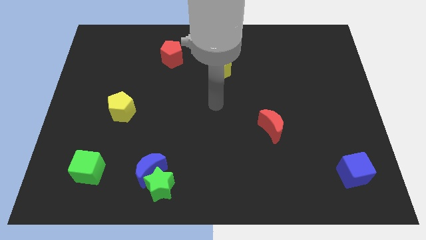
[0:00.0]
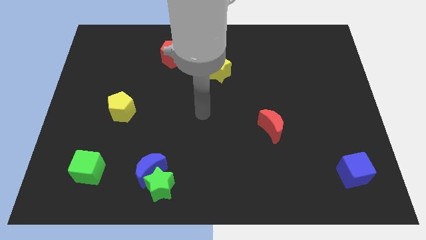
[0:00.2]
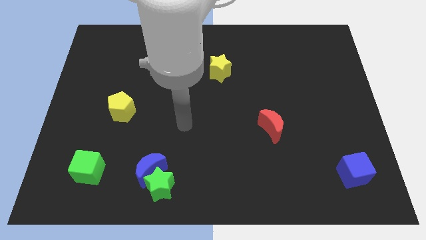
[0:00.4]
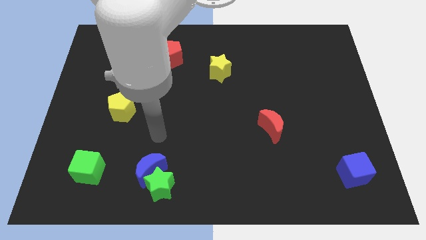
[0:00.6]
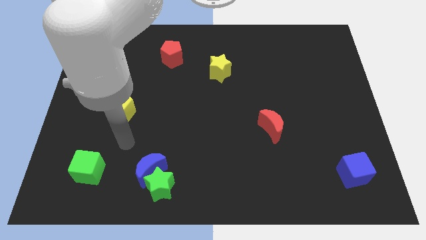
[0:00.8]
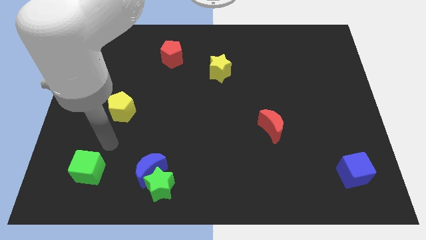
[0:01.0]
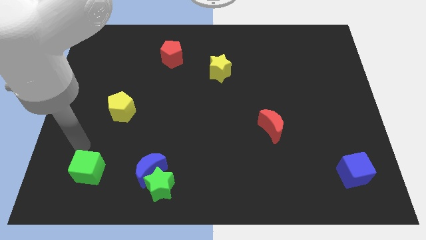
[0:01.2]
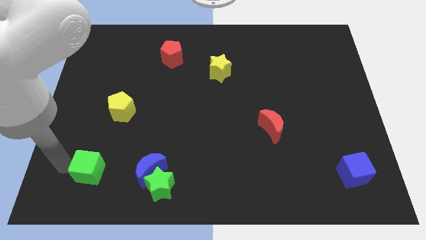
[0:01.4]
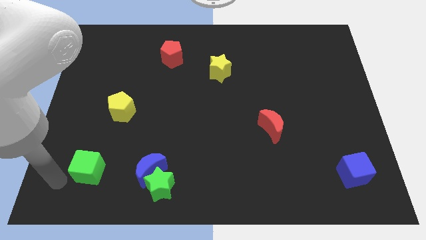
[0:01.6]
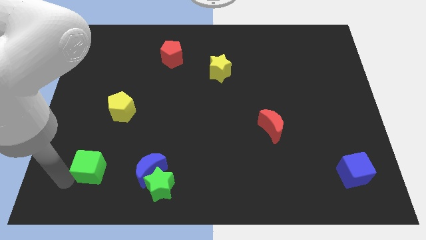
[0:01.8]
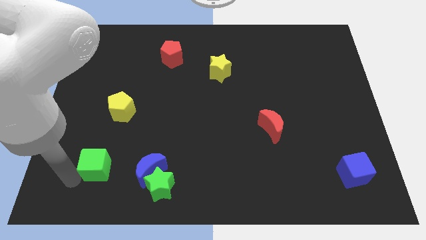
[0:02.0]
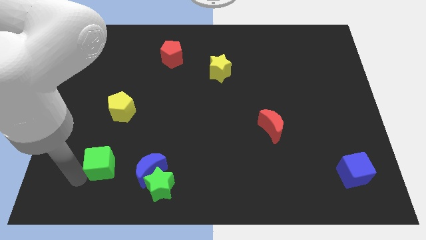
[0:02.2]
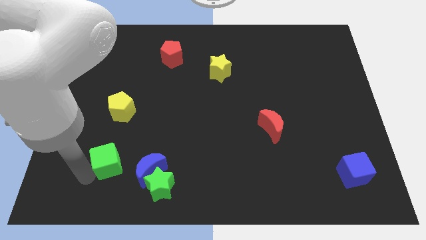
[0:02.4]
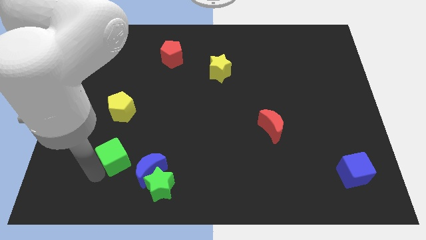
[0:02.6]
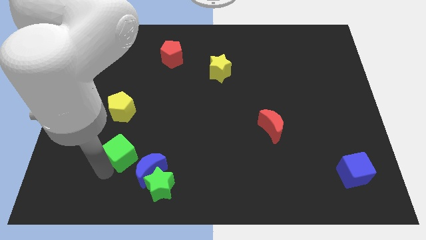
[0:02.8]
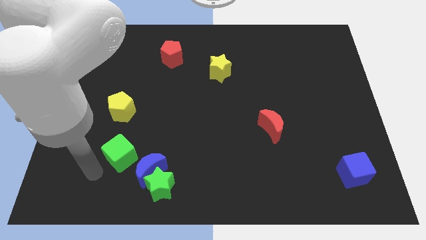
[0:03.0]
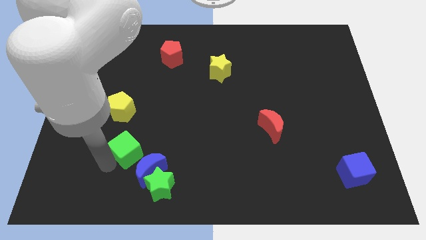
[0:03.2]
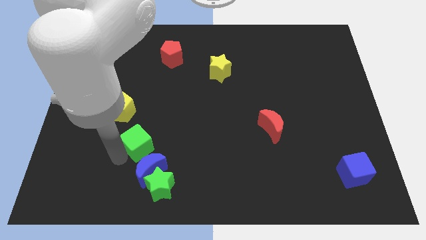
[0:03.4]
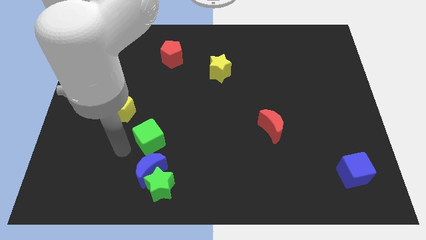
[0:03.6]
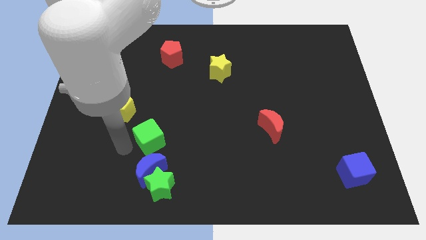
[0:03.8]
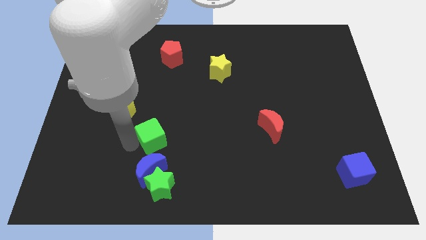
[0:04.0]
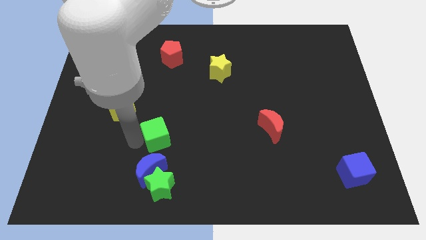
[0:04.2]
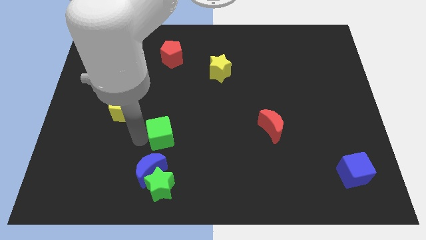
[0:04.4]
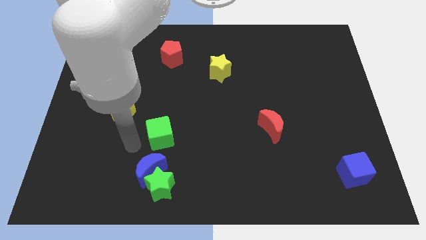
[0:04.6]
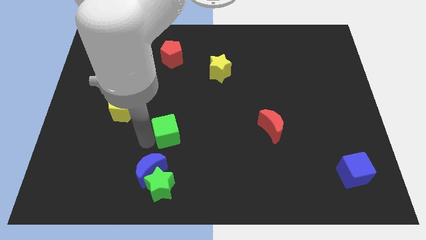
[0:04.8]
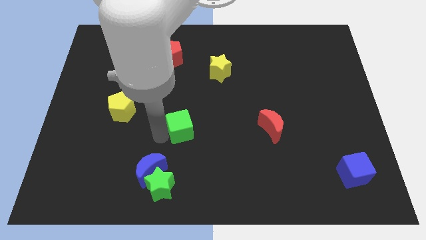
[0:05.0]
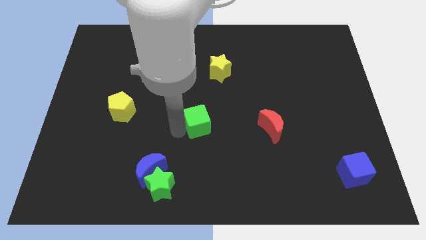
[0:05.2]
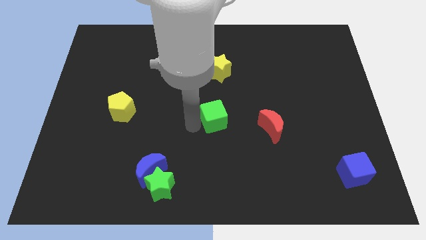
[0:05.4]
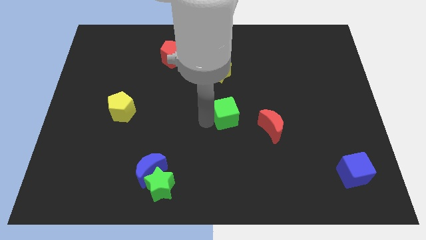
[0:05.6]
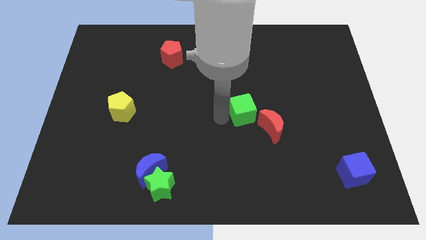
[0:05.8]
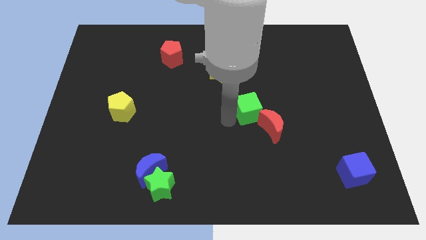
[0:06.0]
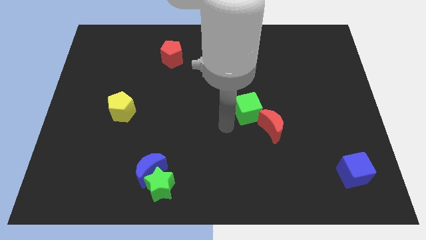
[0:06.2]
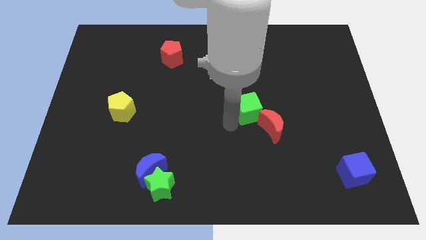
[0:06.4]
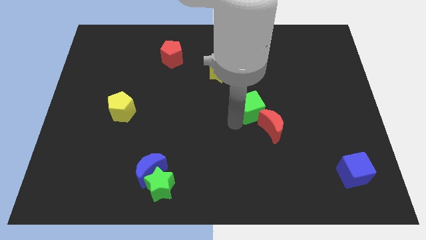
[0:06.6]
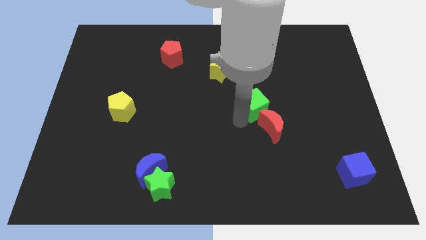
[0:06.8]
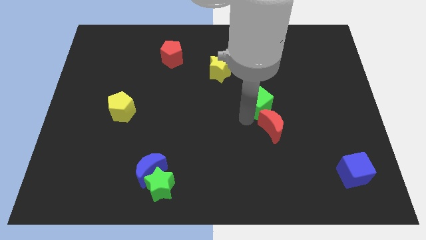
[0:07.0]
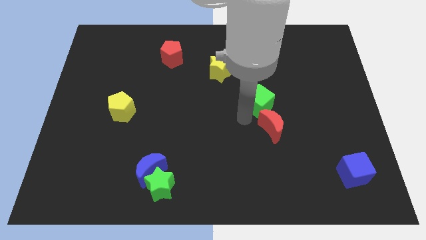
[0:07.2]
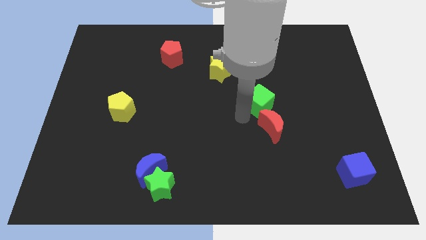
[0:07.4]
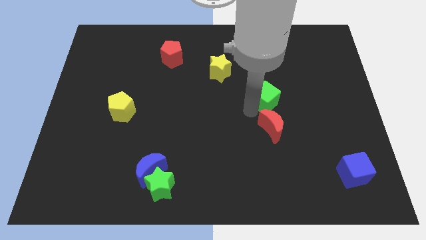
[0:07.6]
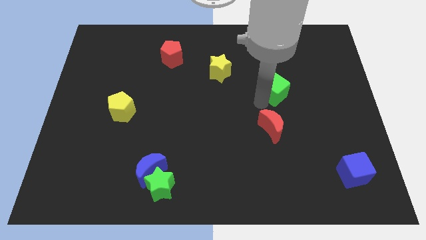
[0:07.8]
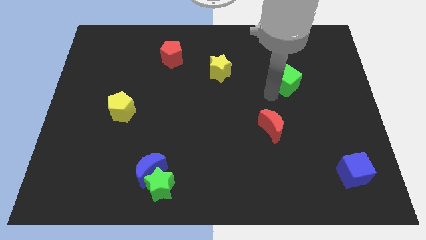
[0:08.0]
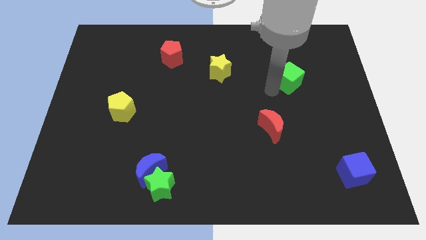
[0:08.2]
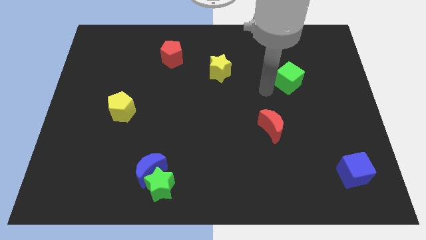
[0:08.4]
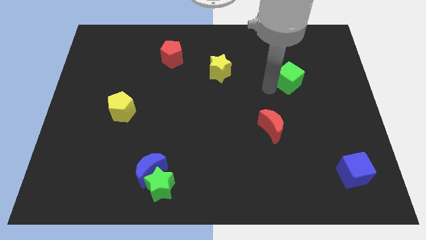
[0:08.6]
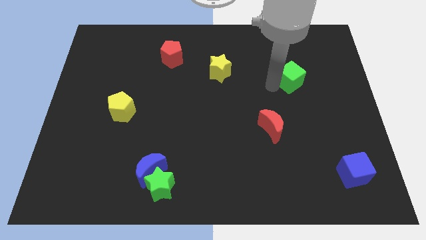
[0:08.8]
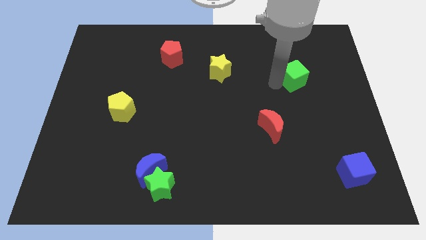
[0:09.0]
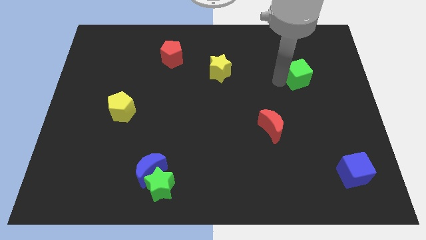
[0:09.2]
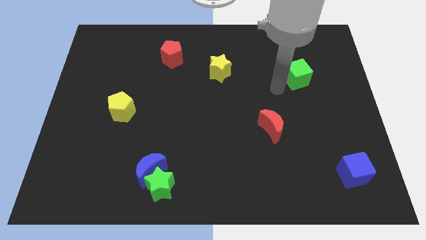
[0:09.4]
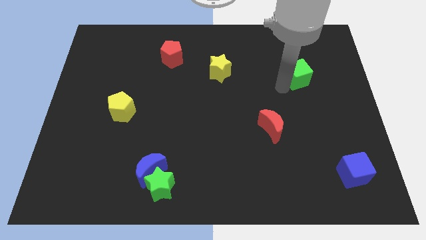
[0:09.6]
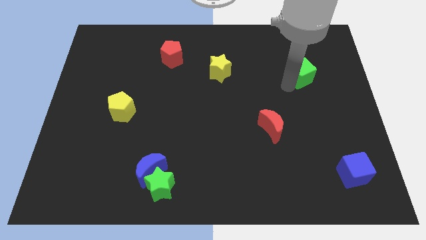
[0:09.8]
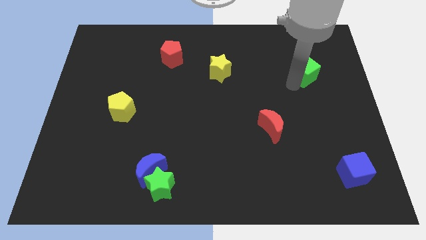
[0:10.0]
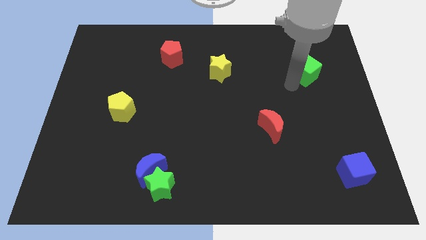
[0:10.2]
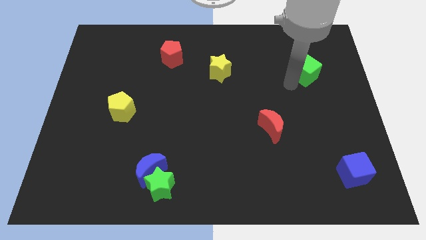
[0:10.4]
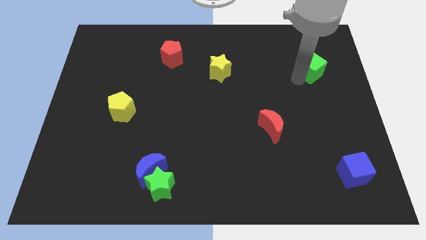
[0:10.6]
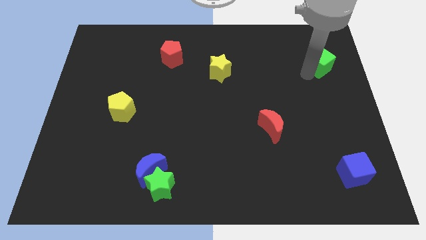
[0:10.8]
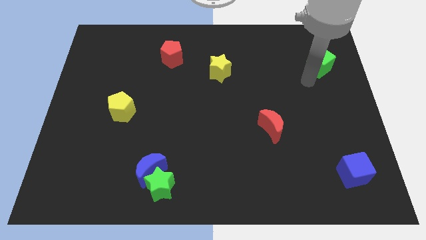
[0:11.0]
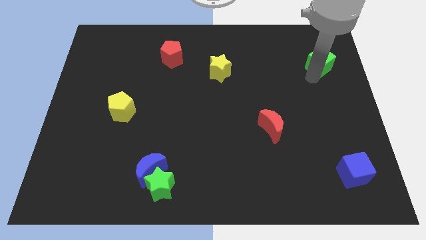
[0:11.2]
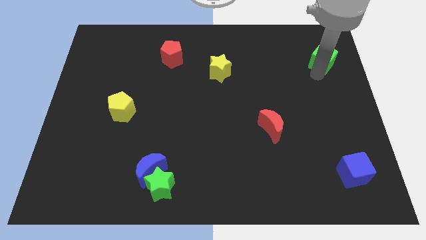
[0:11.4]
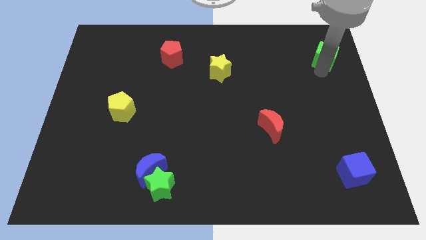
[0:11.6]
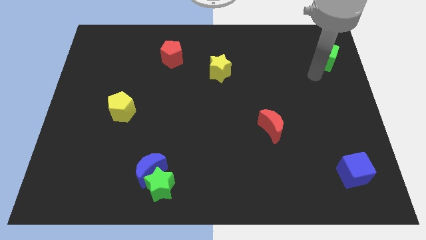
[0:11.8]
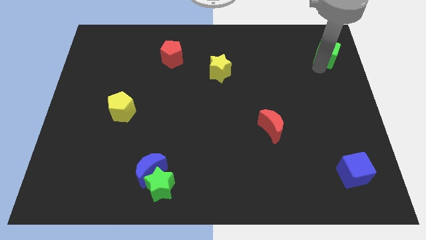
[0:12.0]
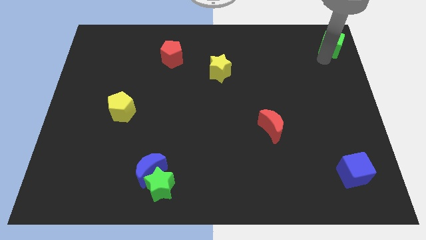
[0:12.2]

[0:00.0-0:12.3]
put the green cube to the top right

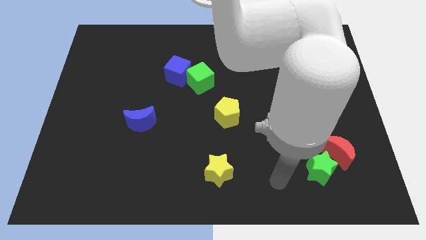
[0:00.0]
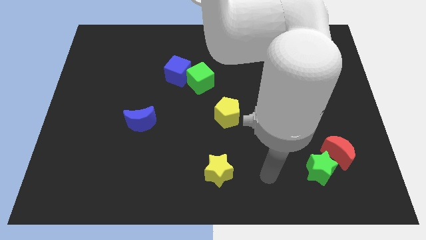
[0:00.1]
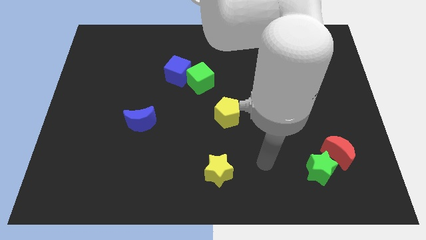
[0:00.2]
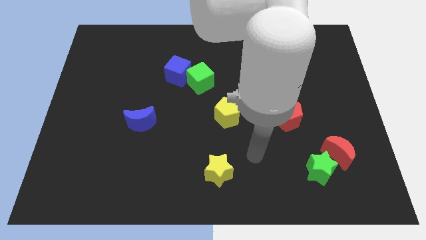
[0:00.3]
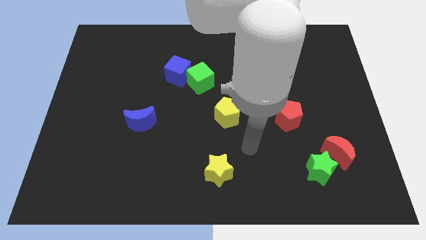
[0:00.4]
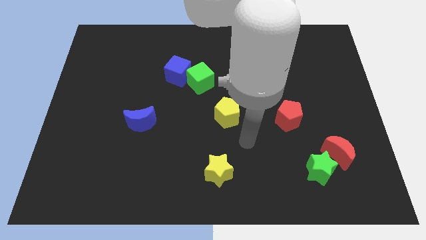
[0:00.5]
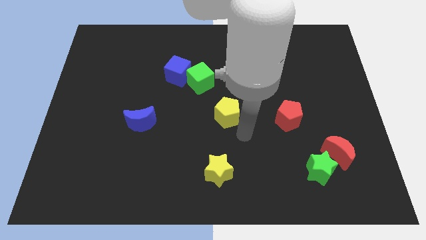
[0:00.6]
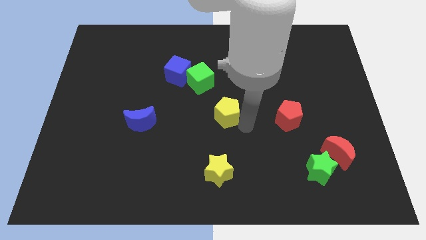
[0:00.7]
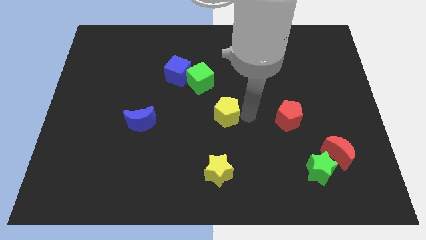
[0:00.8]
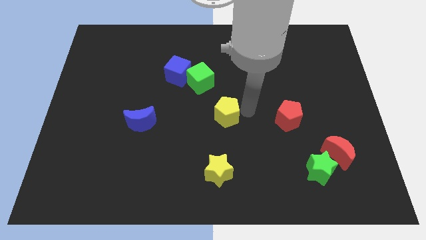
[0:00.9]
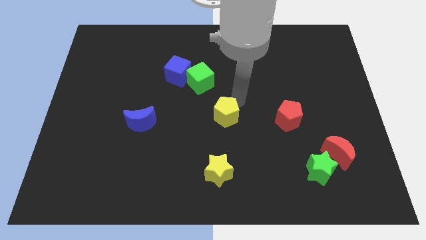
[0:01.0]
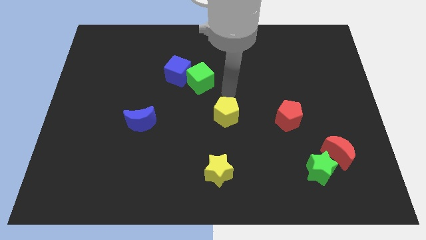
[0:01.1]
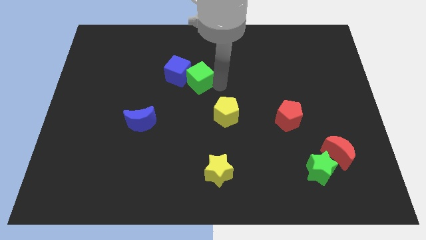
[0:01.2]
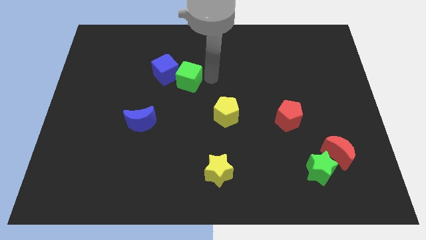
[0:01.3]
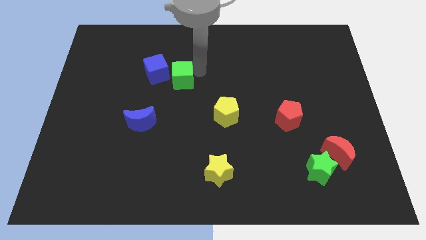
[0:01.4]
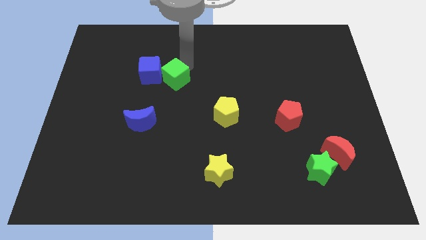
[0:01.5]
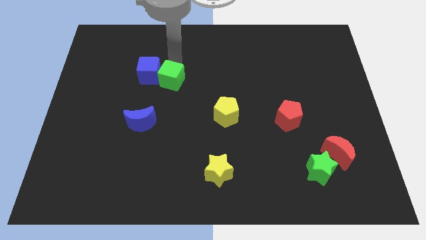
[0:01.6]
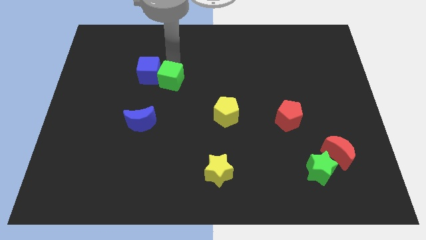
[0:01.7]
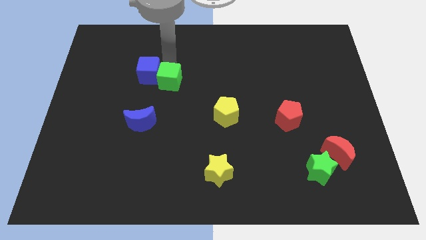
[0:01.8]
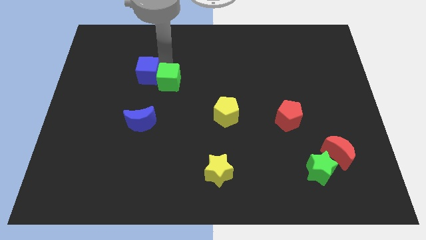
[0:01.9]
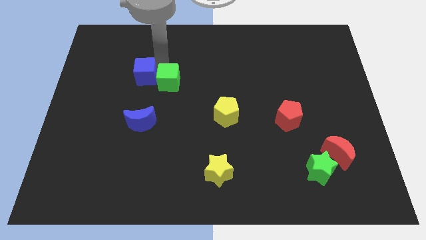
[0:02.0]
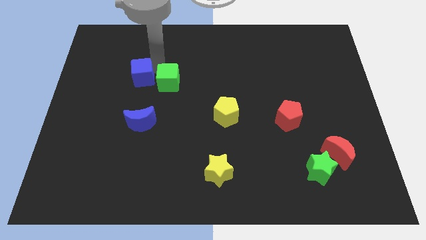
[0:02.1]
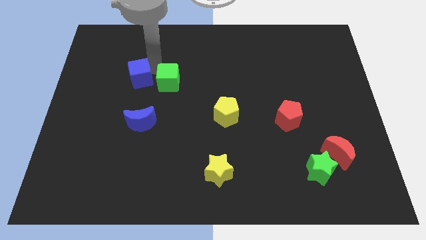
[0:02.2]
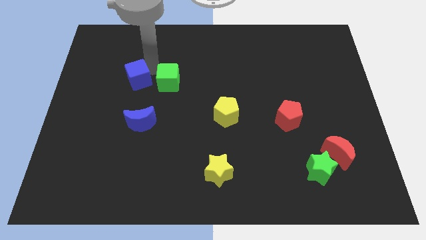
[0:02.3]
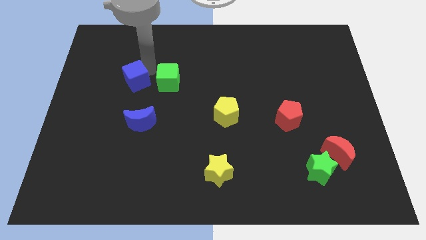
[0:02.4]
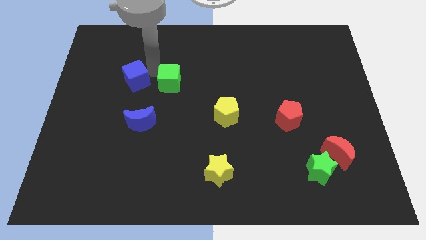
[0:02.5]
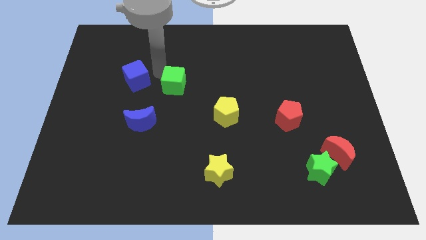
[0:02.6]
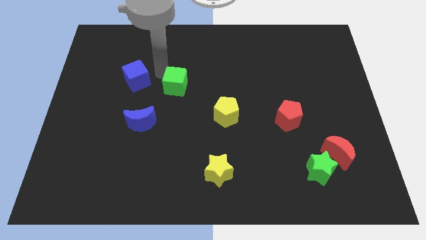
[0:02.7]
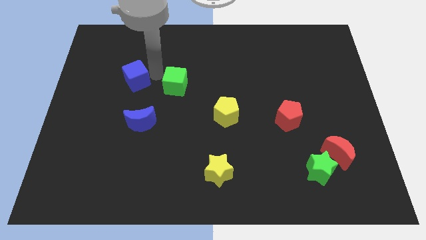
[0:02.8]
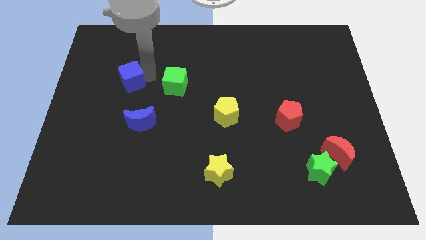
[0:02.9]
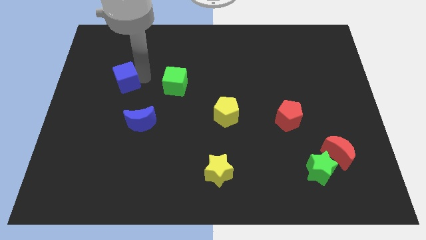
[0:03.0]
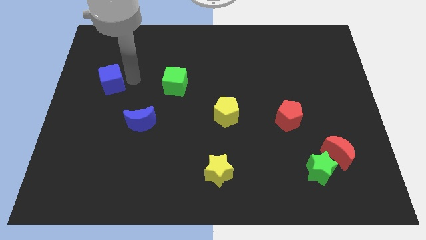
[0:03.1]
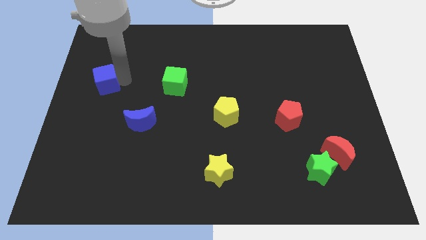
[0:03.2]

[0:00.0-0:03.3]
move the blue cube to the left side of the board
